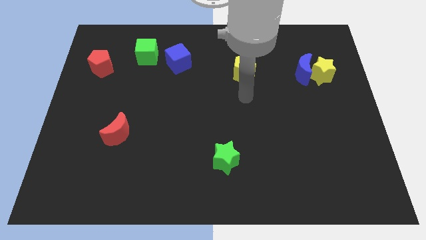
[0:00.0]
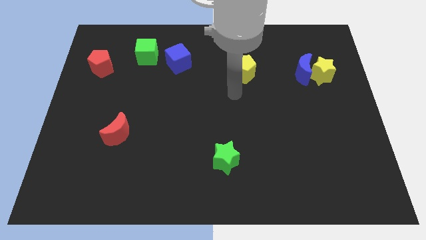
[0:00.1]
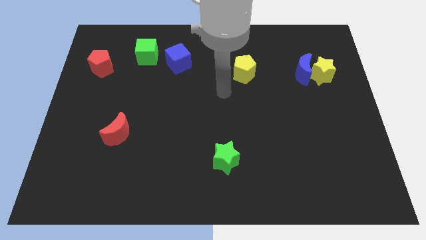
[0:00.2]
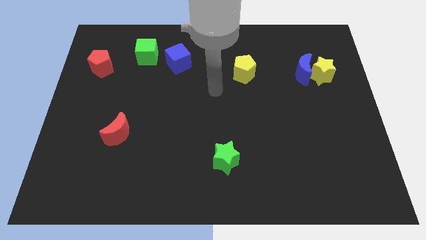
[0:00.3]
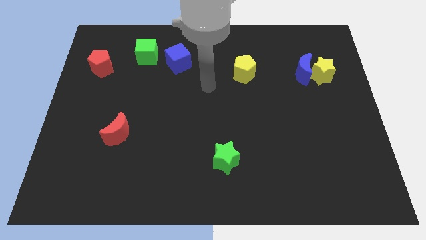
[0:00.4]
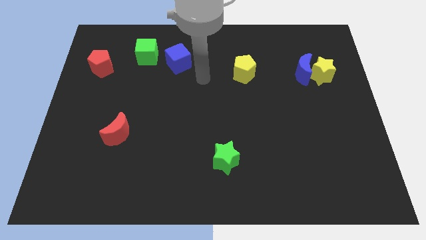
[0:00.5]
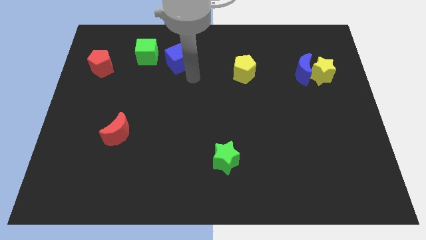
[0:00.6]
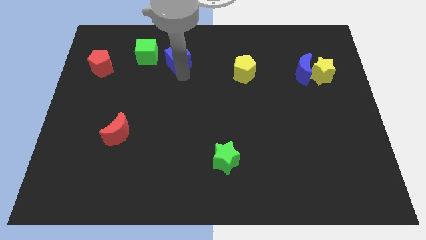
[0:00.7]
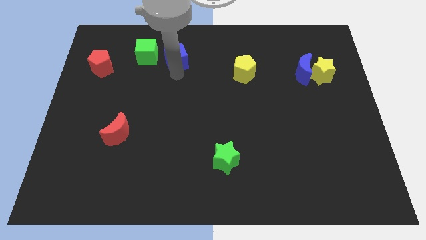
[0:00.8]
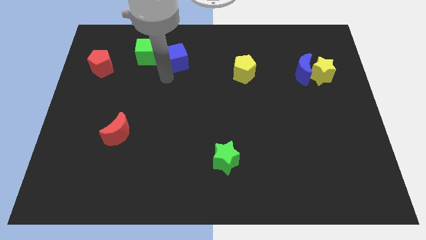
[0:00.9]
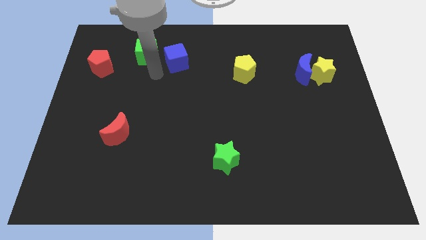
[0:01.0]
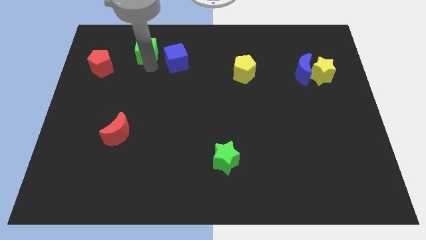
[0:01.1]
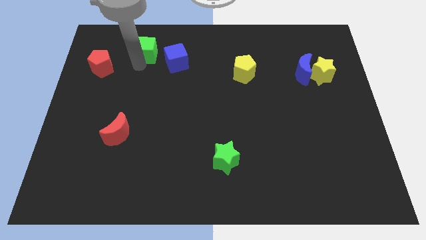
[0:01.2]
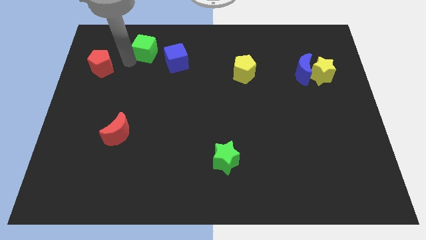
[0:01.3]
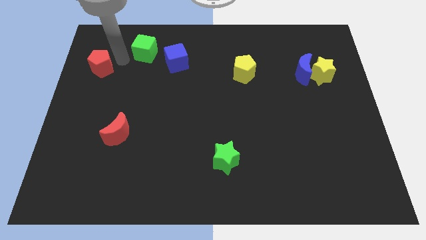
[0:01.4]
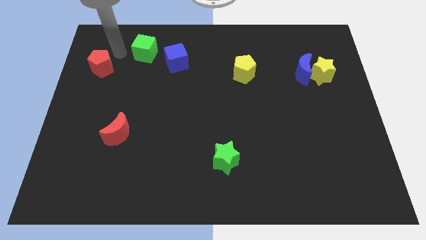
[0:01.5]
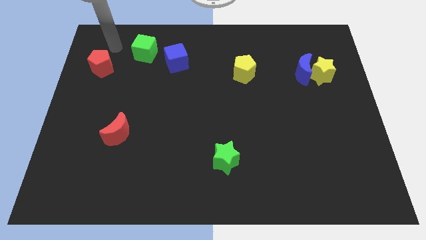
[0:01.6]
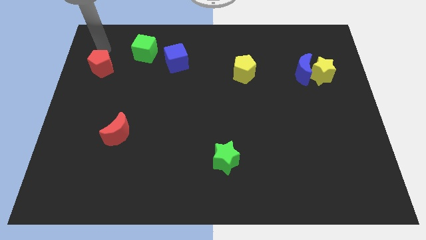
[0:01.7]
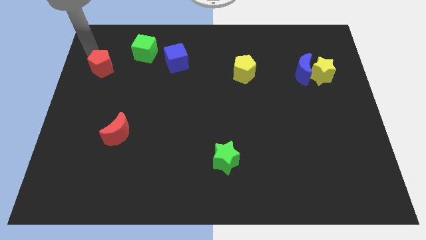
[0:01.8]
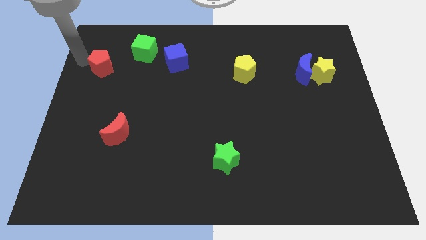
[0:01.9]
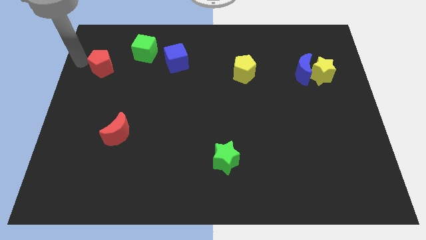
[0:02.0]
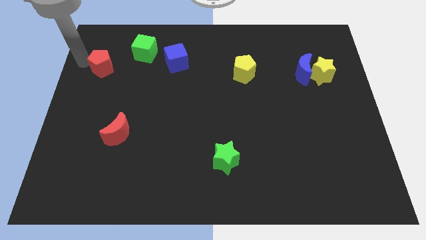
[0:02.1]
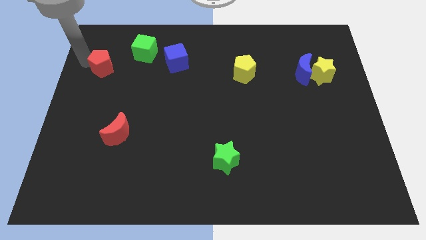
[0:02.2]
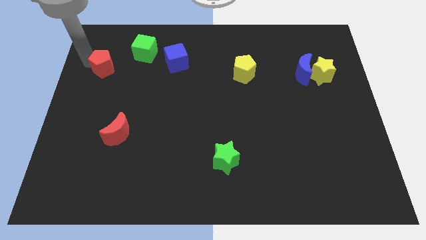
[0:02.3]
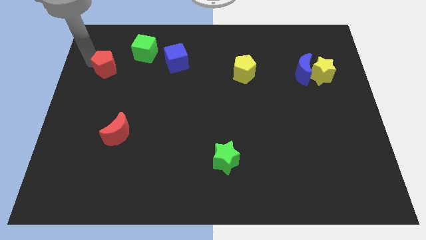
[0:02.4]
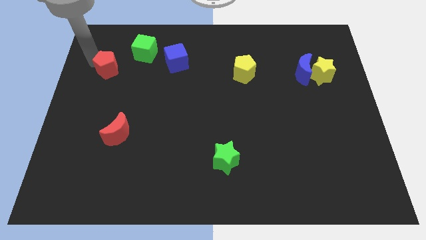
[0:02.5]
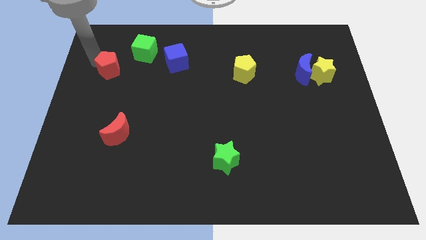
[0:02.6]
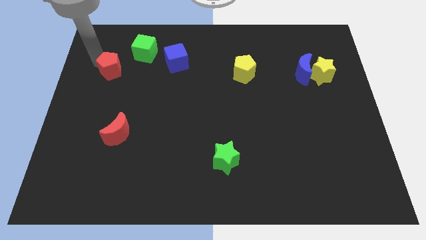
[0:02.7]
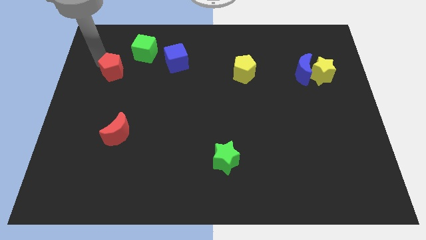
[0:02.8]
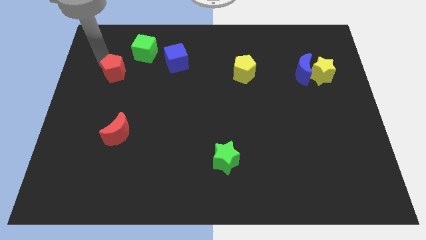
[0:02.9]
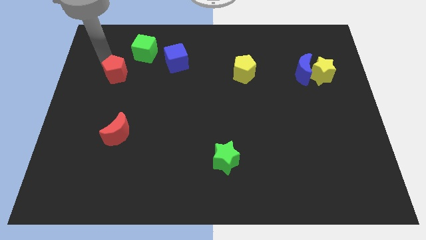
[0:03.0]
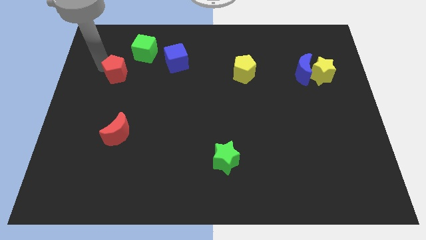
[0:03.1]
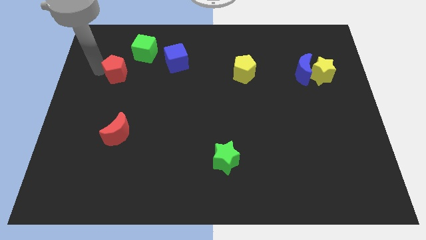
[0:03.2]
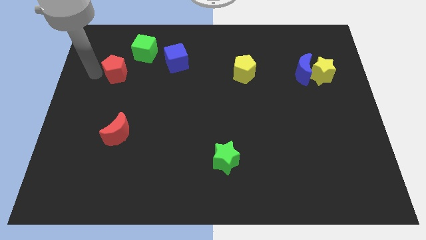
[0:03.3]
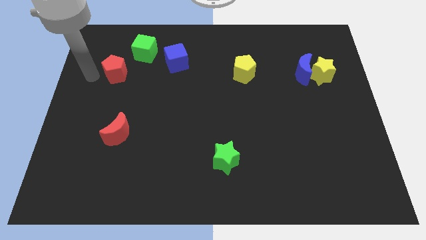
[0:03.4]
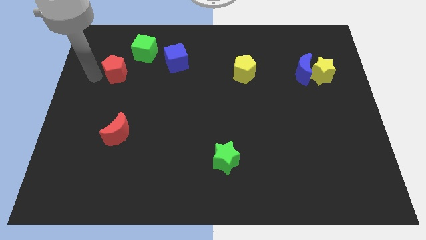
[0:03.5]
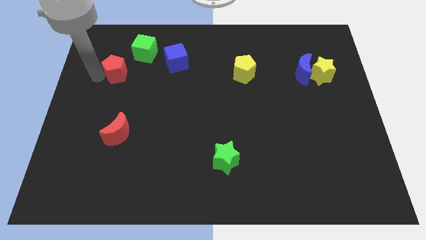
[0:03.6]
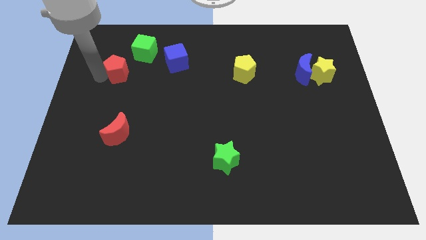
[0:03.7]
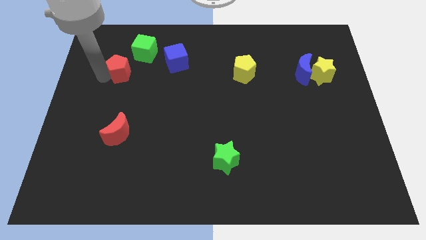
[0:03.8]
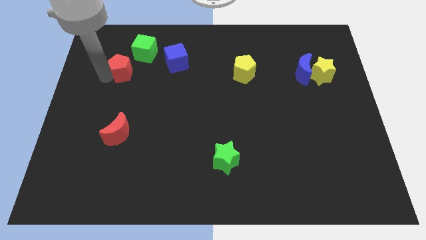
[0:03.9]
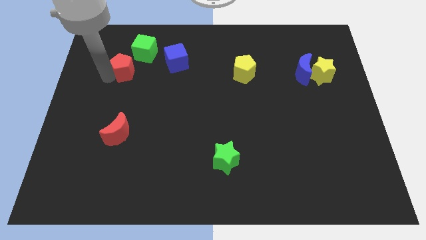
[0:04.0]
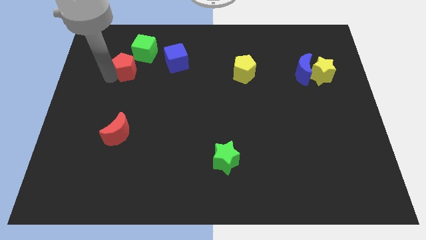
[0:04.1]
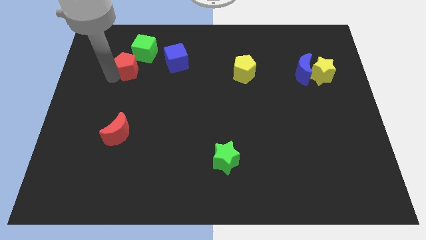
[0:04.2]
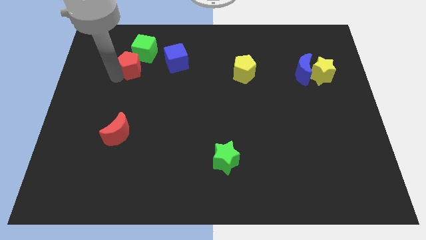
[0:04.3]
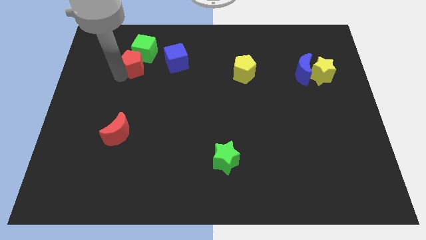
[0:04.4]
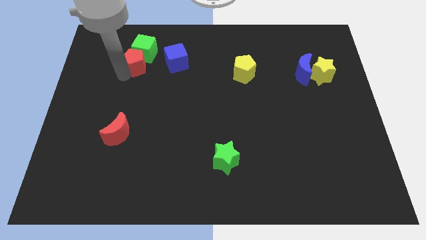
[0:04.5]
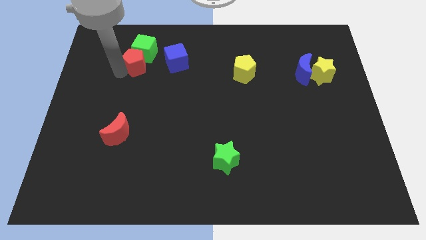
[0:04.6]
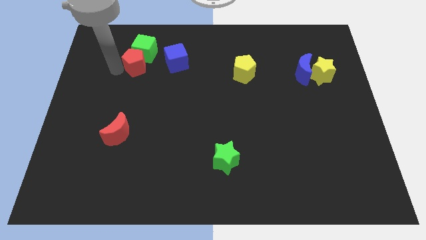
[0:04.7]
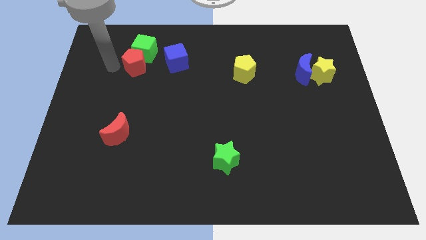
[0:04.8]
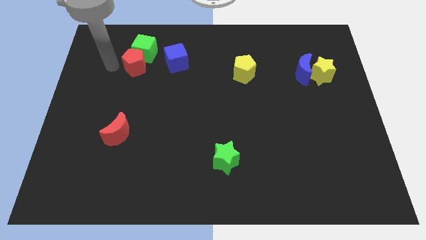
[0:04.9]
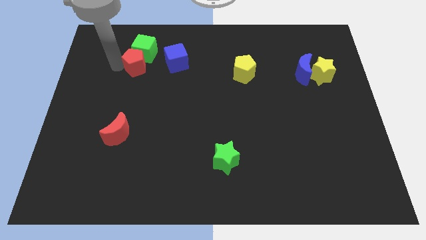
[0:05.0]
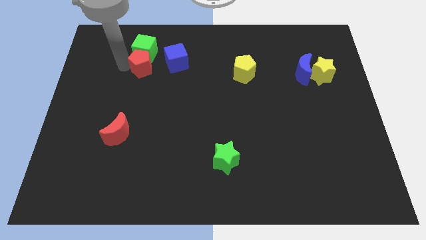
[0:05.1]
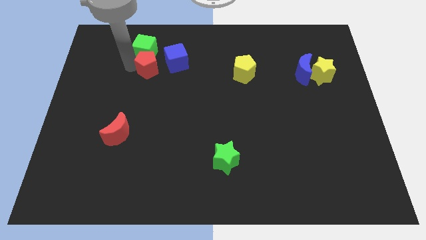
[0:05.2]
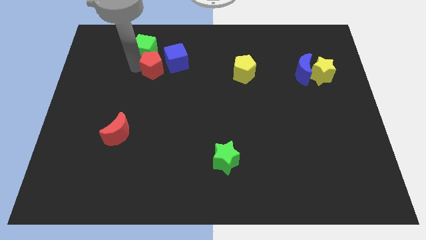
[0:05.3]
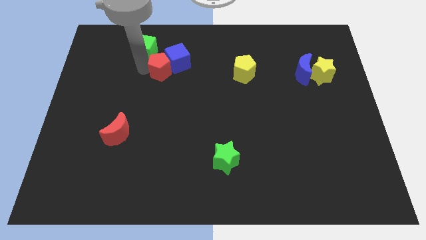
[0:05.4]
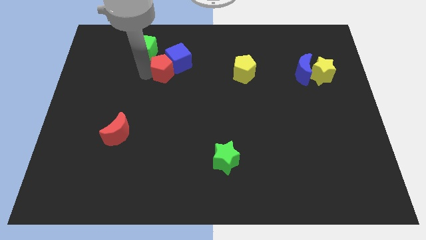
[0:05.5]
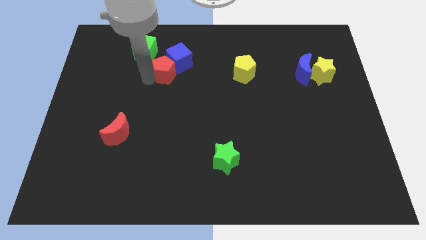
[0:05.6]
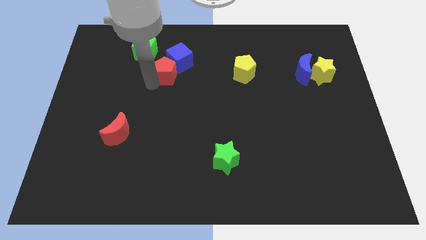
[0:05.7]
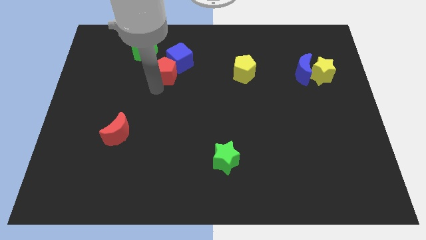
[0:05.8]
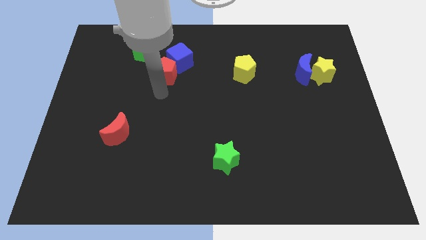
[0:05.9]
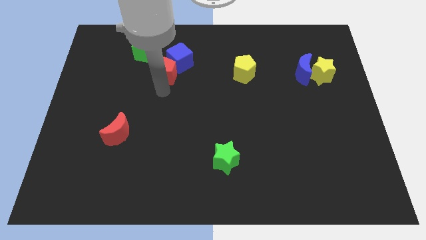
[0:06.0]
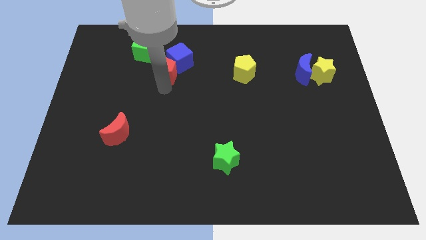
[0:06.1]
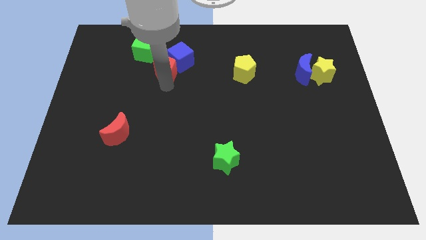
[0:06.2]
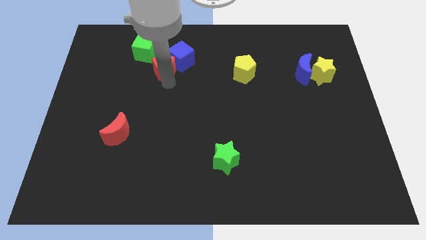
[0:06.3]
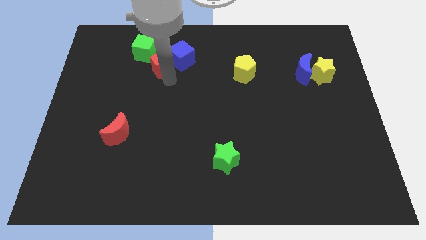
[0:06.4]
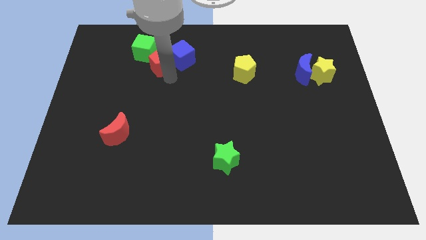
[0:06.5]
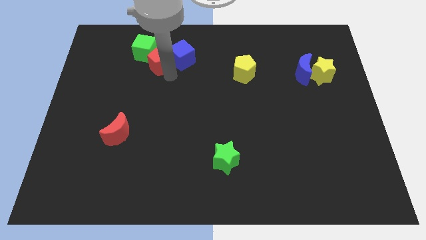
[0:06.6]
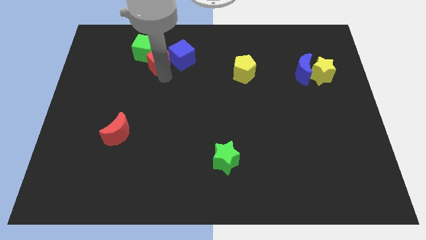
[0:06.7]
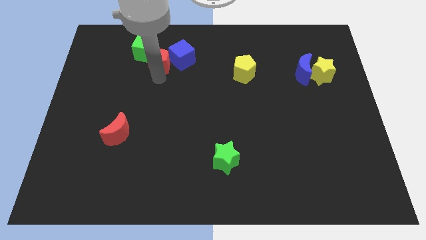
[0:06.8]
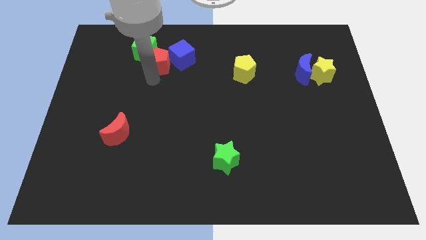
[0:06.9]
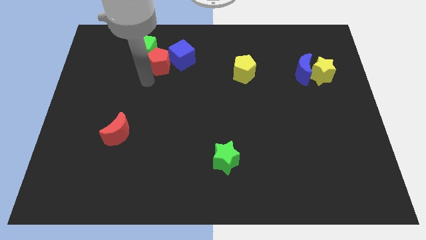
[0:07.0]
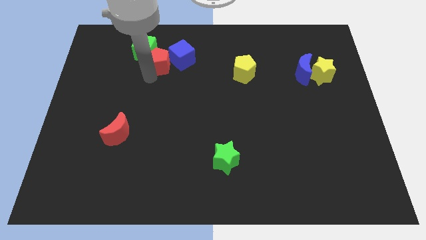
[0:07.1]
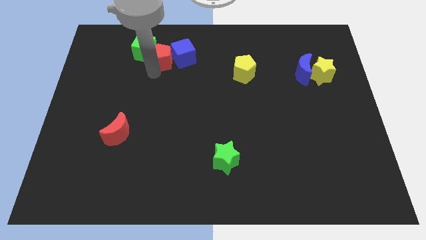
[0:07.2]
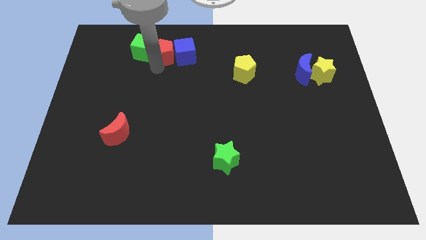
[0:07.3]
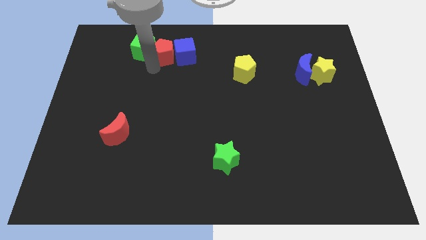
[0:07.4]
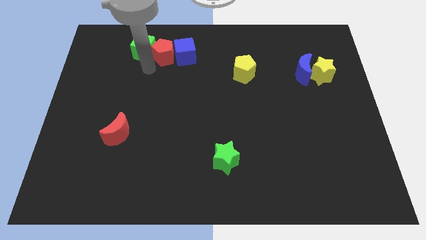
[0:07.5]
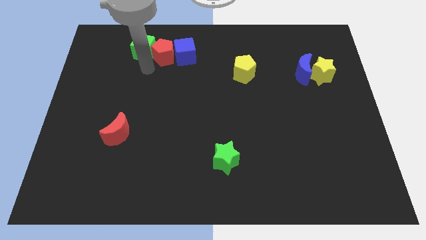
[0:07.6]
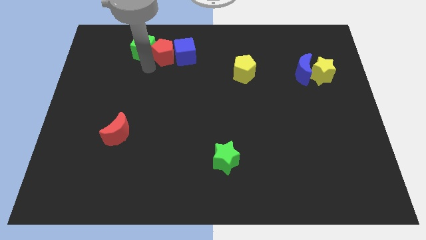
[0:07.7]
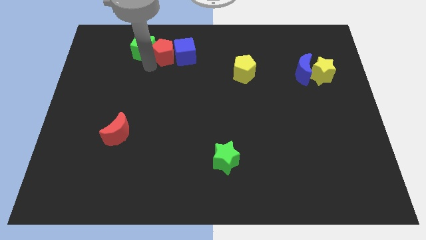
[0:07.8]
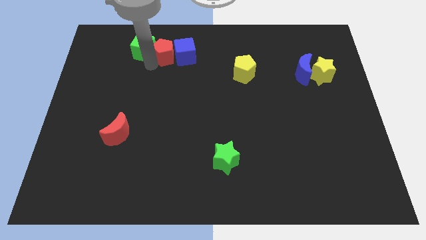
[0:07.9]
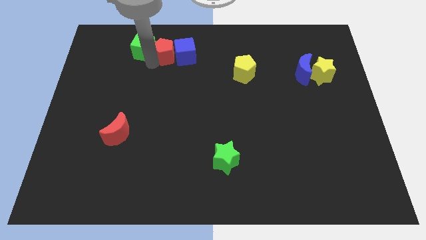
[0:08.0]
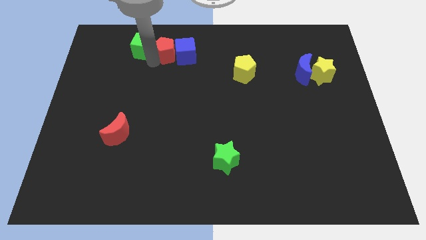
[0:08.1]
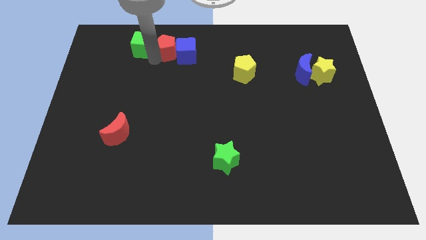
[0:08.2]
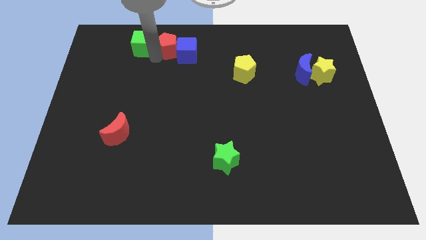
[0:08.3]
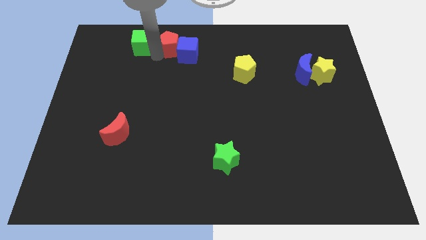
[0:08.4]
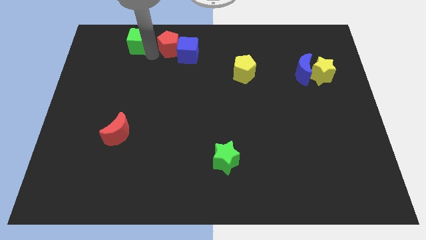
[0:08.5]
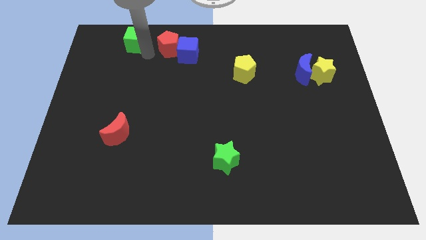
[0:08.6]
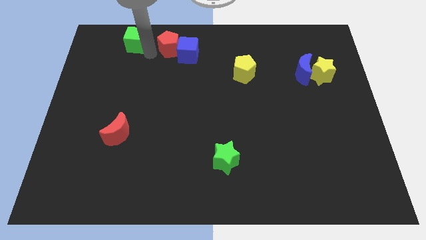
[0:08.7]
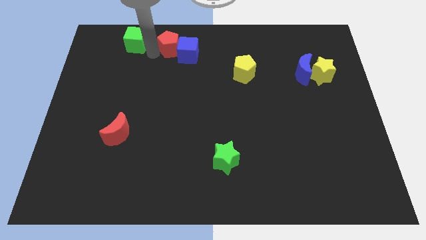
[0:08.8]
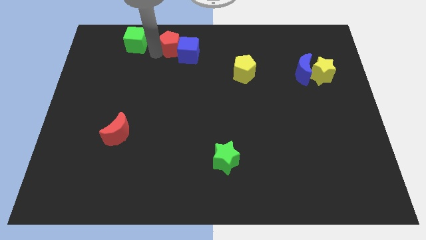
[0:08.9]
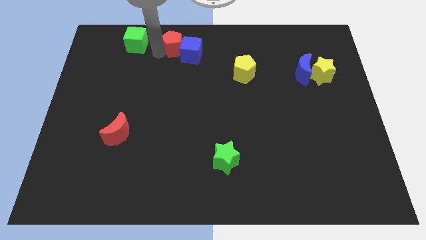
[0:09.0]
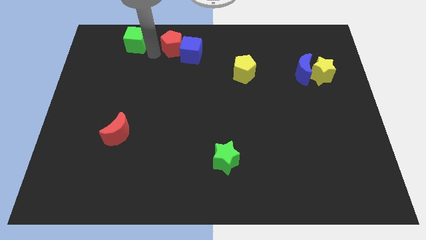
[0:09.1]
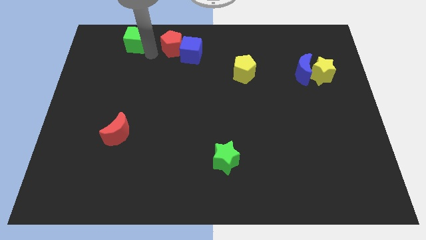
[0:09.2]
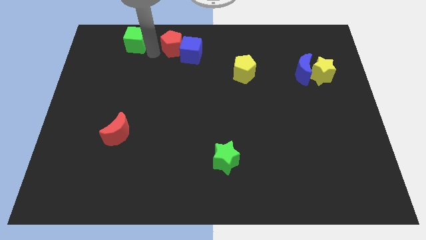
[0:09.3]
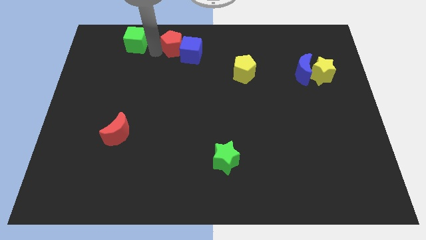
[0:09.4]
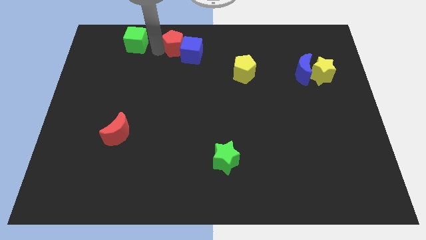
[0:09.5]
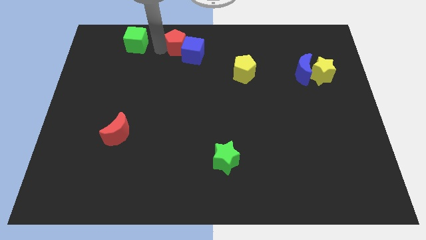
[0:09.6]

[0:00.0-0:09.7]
put the red pentagon to the top
